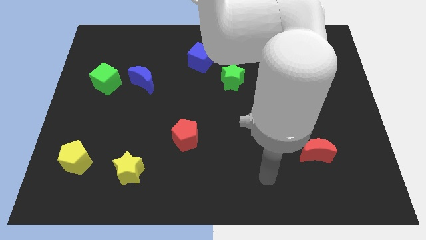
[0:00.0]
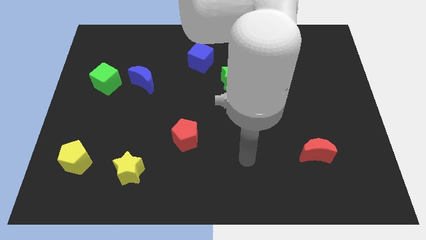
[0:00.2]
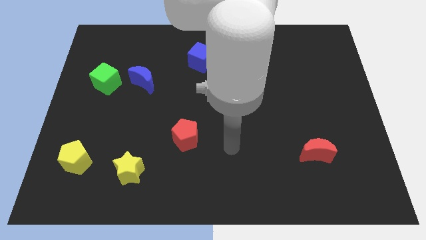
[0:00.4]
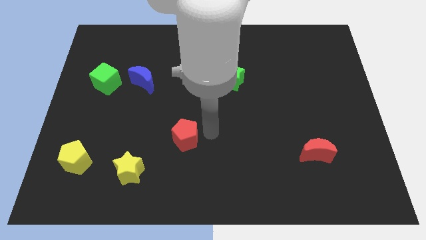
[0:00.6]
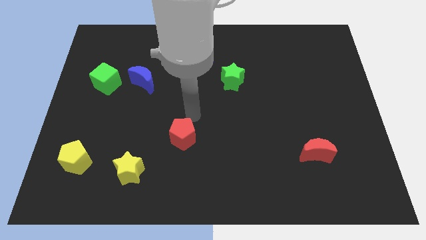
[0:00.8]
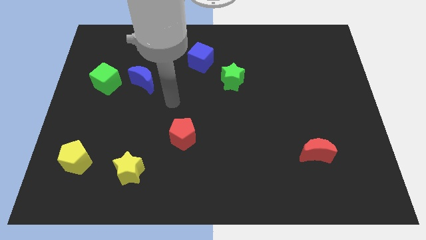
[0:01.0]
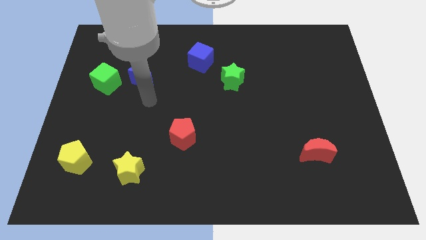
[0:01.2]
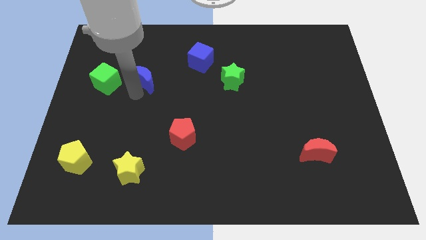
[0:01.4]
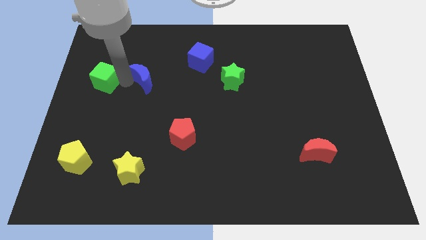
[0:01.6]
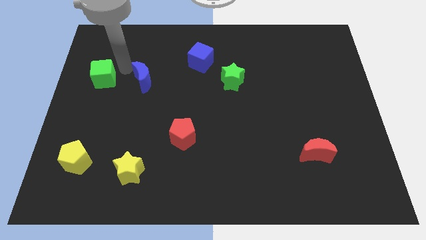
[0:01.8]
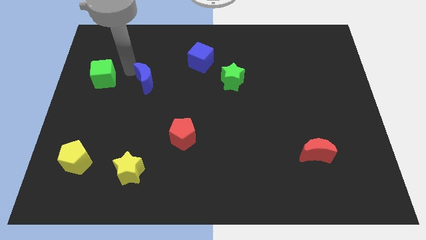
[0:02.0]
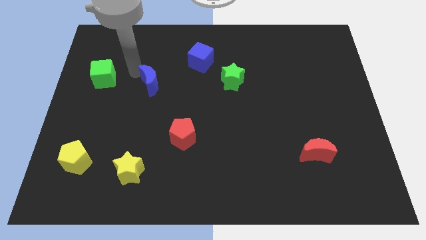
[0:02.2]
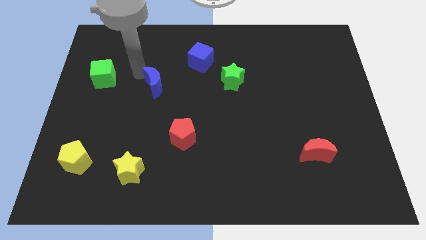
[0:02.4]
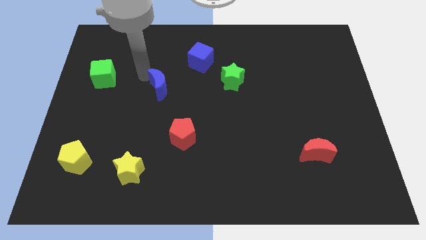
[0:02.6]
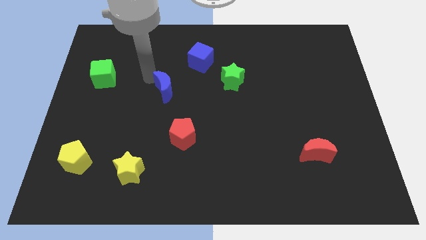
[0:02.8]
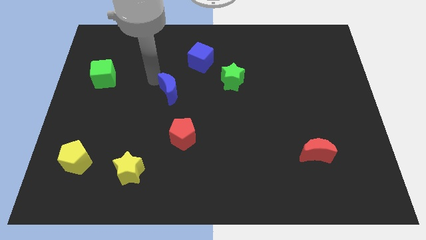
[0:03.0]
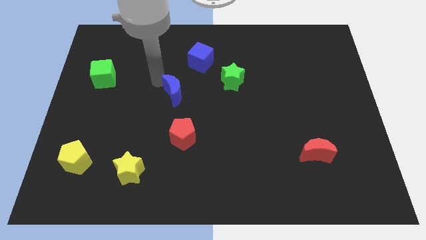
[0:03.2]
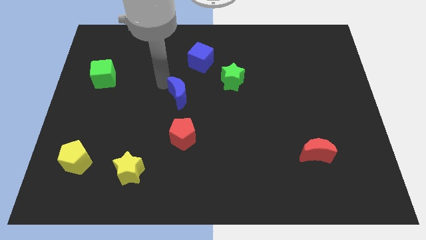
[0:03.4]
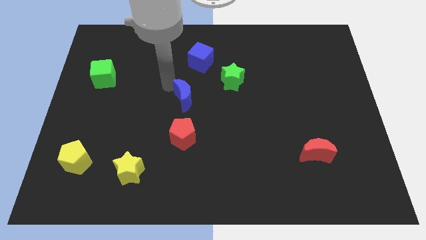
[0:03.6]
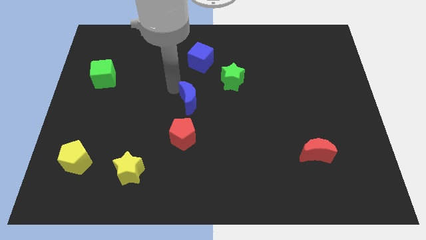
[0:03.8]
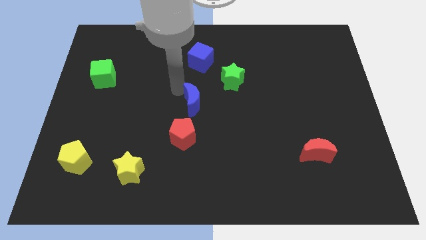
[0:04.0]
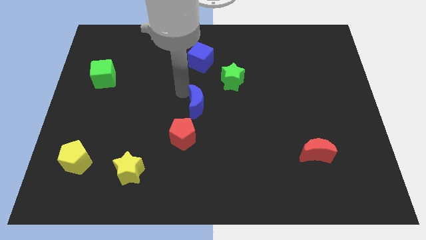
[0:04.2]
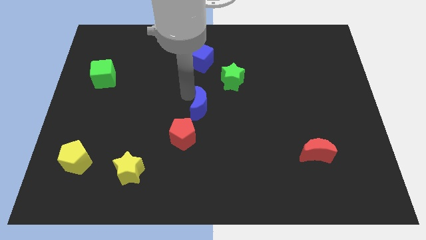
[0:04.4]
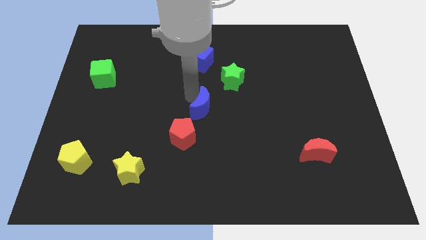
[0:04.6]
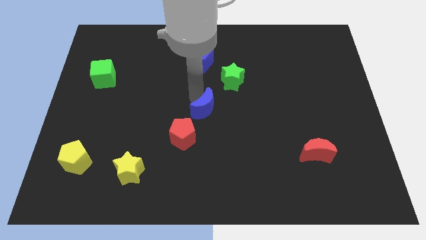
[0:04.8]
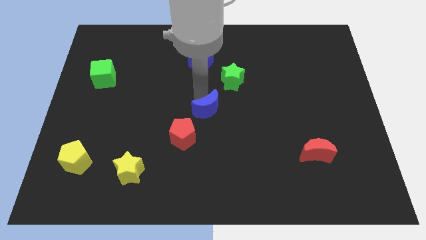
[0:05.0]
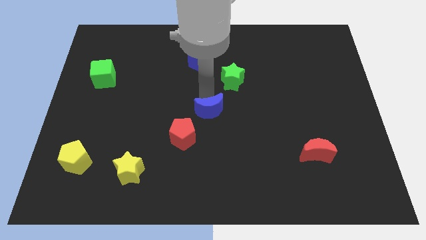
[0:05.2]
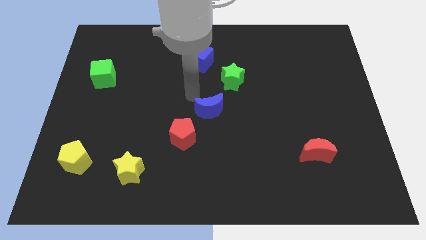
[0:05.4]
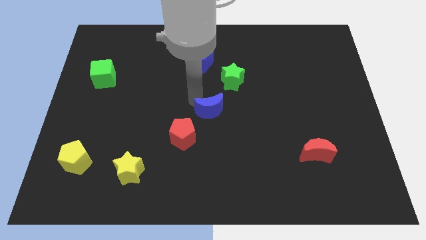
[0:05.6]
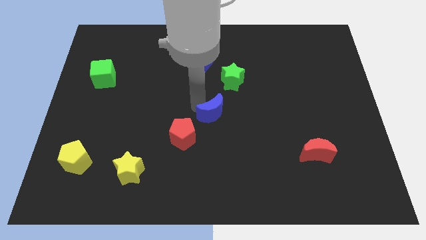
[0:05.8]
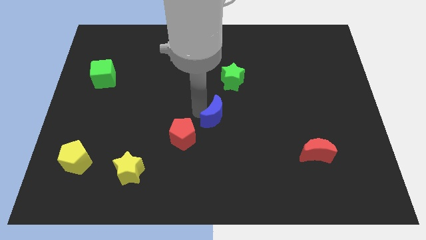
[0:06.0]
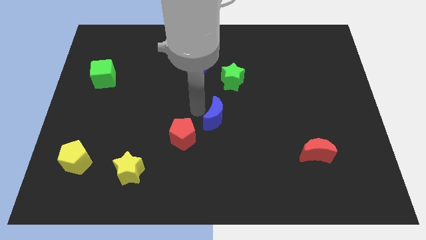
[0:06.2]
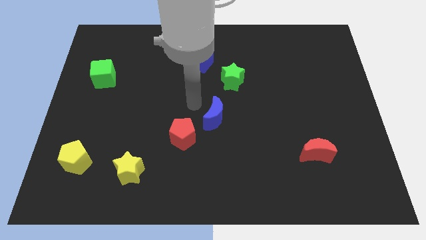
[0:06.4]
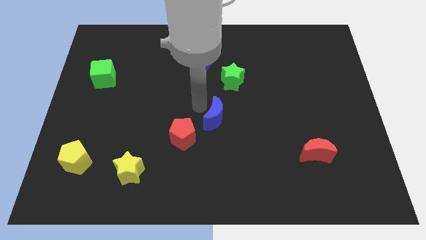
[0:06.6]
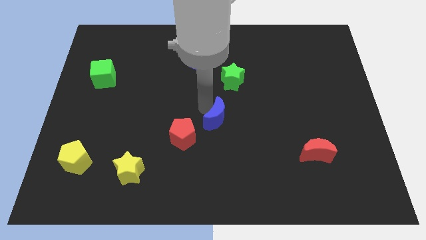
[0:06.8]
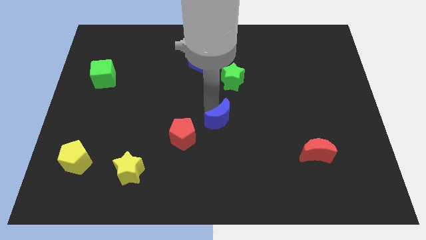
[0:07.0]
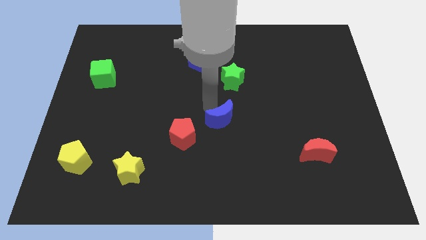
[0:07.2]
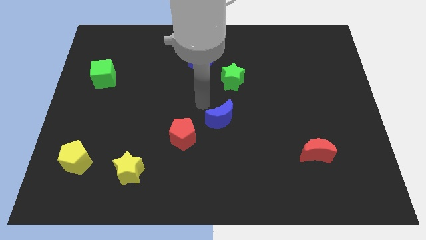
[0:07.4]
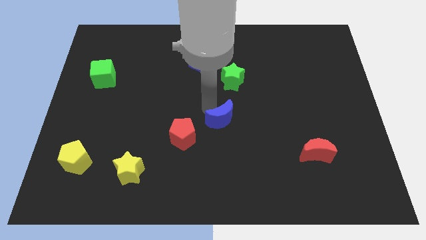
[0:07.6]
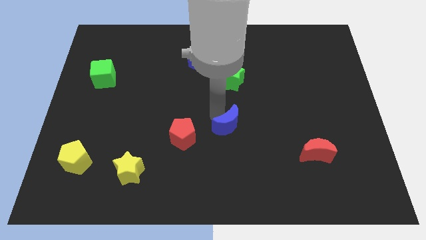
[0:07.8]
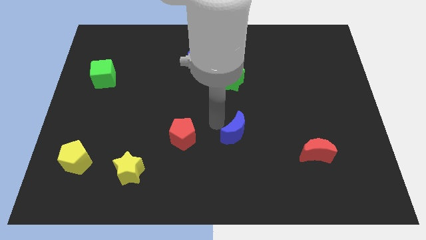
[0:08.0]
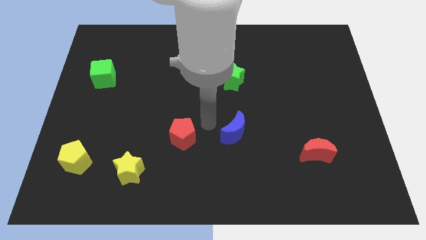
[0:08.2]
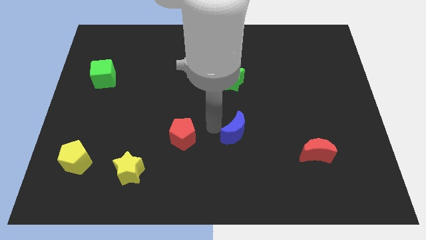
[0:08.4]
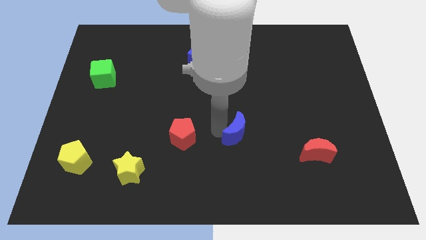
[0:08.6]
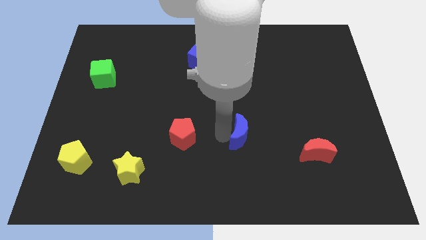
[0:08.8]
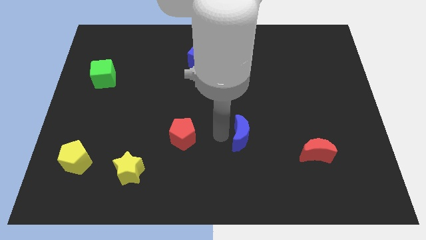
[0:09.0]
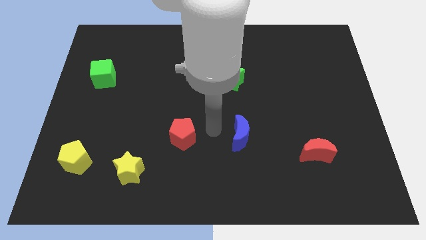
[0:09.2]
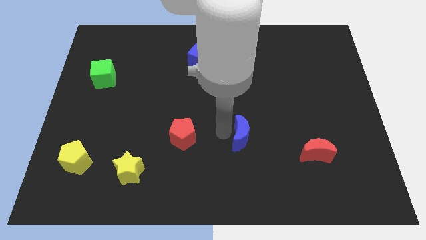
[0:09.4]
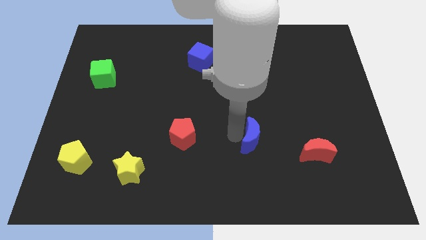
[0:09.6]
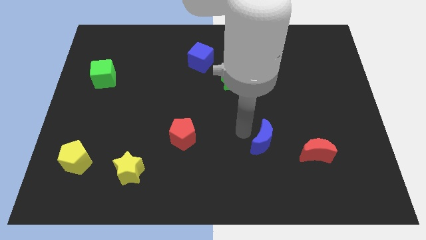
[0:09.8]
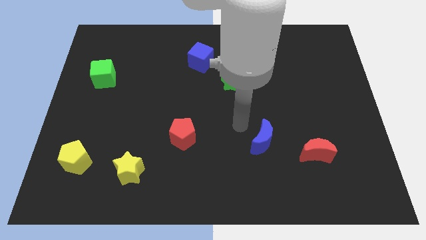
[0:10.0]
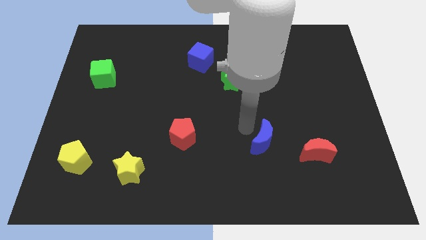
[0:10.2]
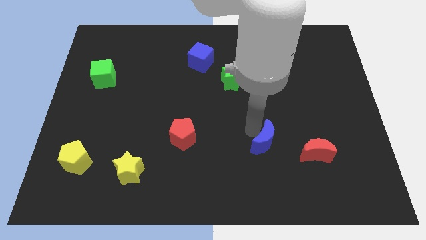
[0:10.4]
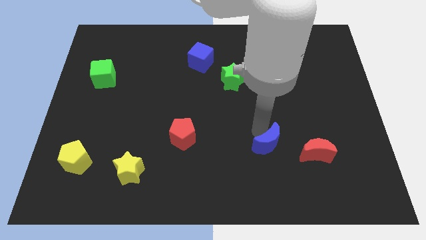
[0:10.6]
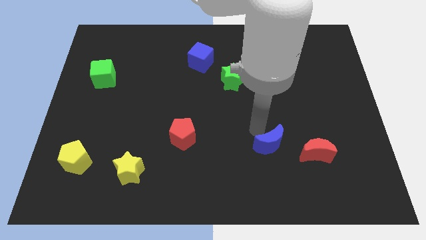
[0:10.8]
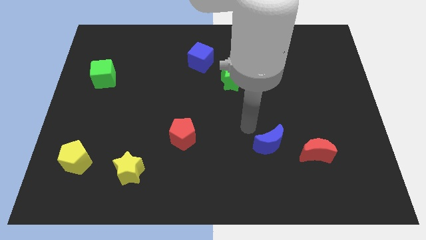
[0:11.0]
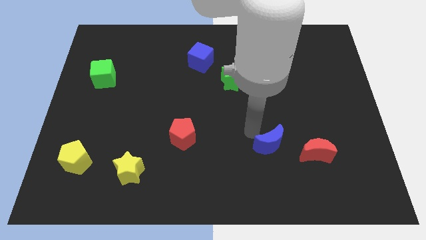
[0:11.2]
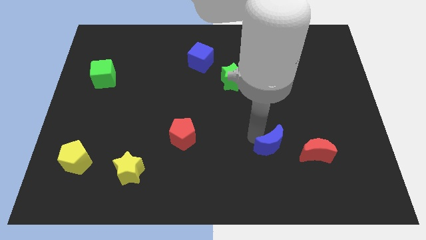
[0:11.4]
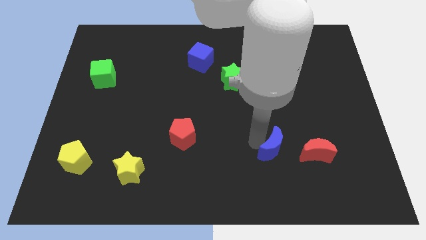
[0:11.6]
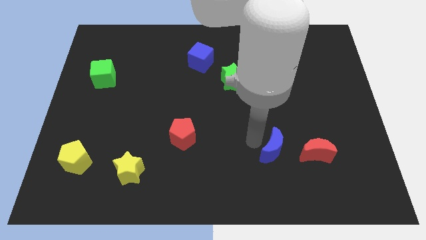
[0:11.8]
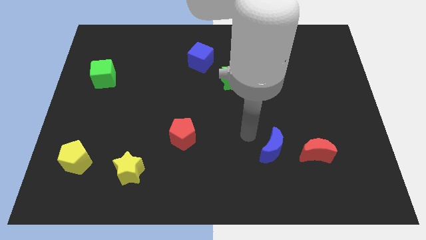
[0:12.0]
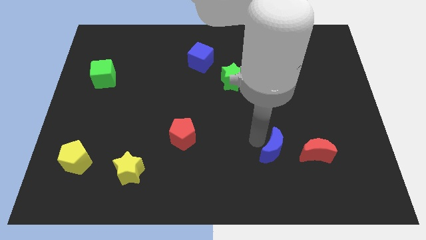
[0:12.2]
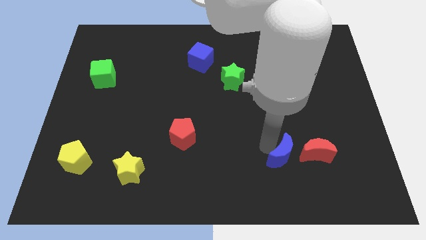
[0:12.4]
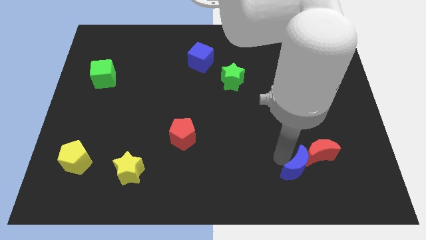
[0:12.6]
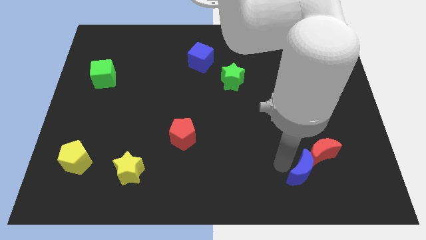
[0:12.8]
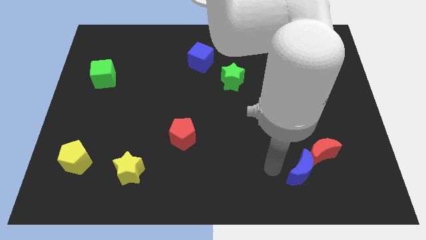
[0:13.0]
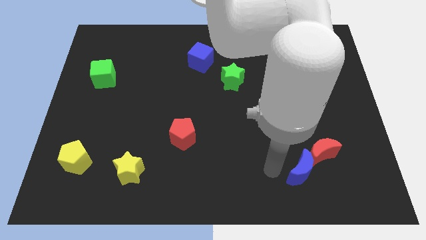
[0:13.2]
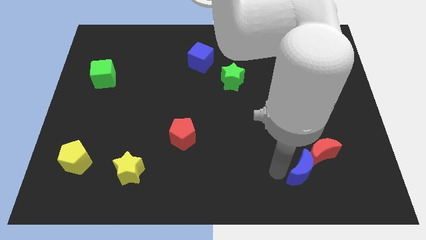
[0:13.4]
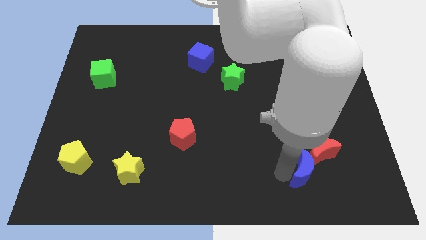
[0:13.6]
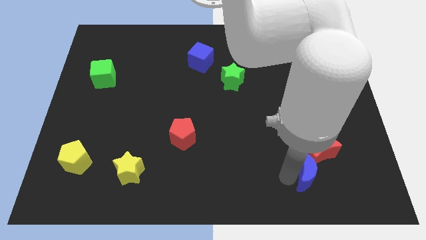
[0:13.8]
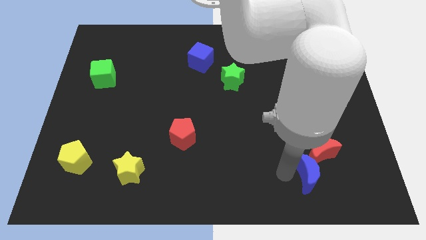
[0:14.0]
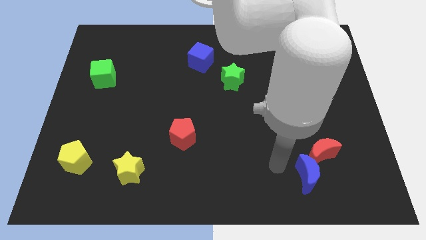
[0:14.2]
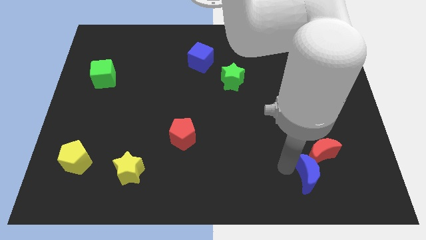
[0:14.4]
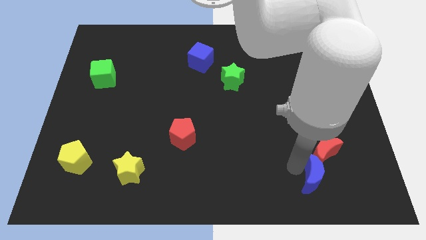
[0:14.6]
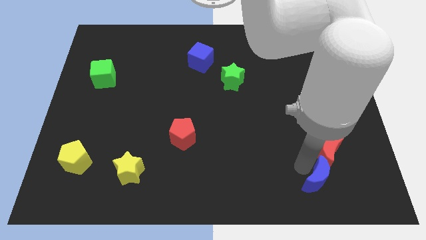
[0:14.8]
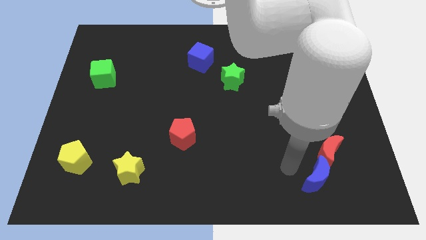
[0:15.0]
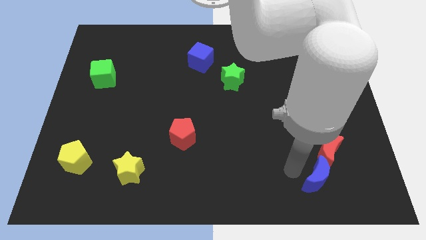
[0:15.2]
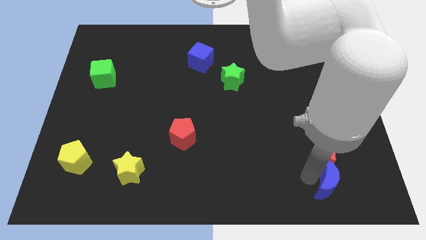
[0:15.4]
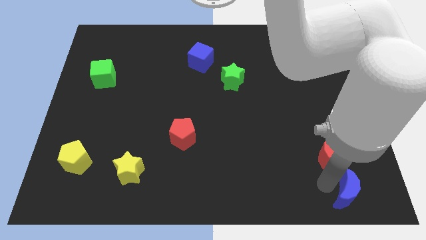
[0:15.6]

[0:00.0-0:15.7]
move the blue moon to the bottom right of the board
